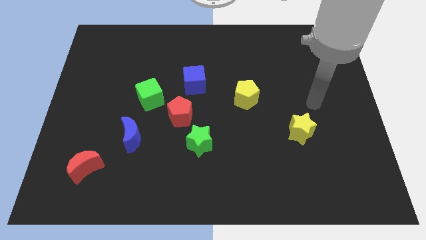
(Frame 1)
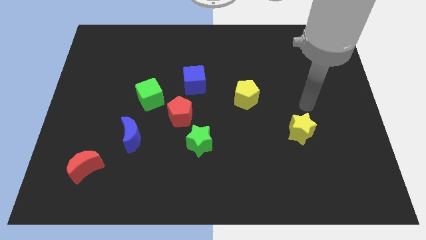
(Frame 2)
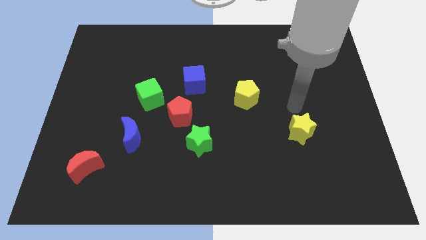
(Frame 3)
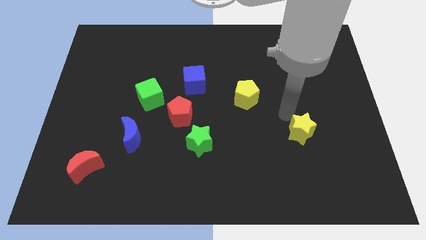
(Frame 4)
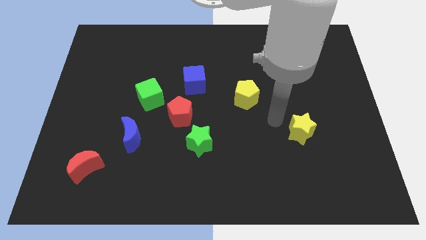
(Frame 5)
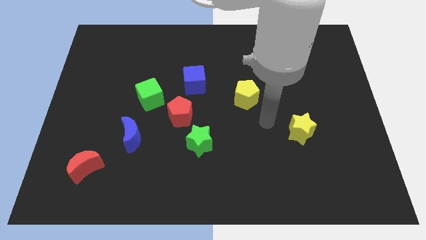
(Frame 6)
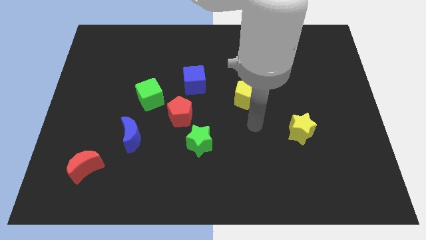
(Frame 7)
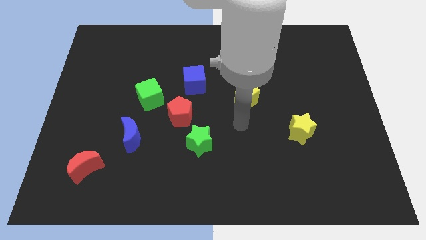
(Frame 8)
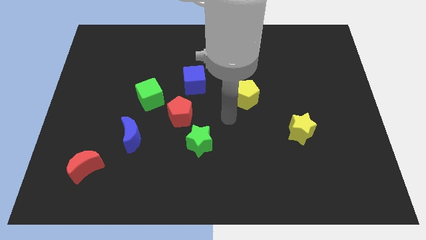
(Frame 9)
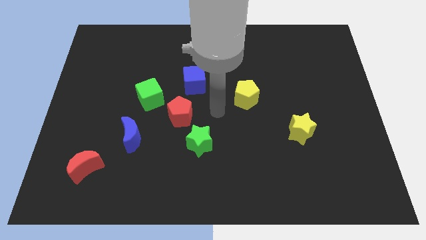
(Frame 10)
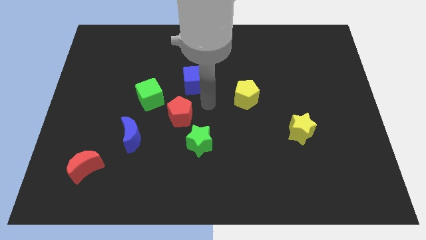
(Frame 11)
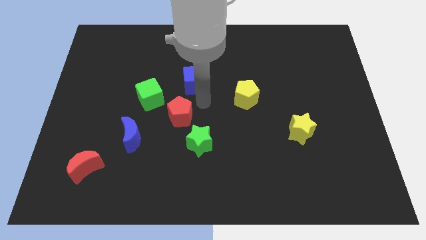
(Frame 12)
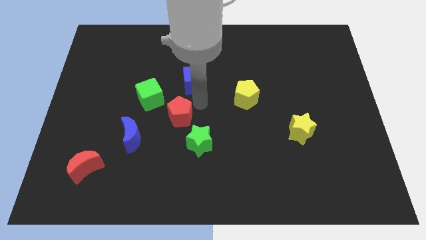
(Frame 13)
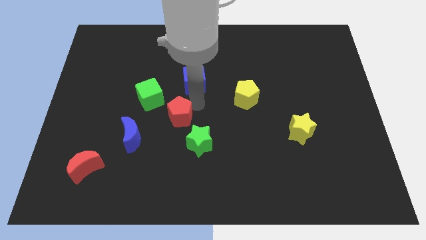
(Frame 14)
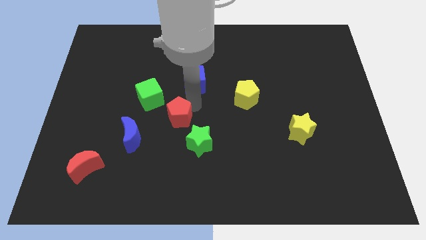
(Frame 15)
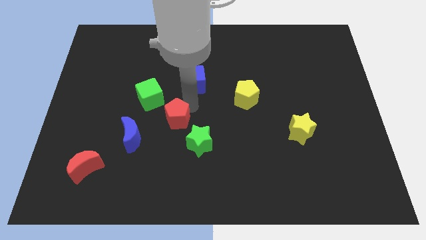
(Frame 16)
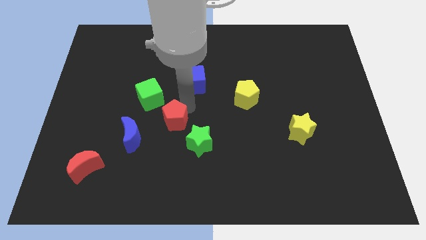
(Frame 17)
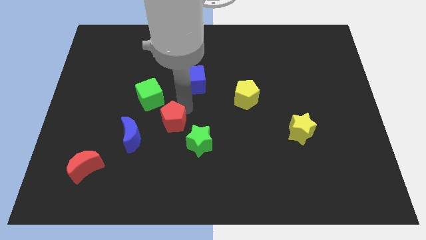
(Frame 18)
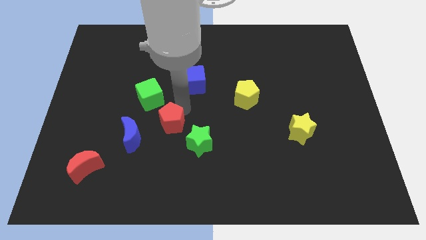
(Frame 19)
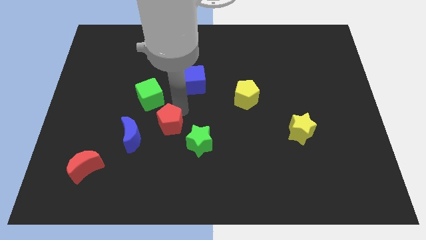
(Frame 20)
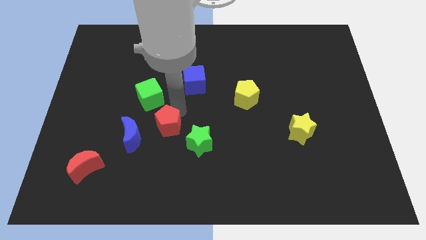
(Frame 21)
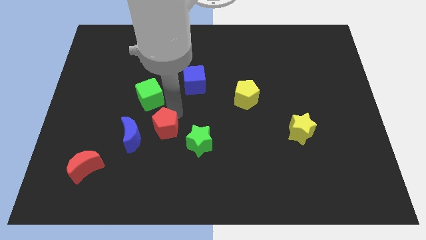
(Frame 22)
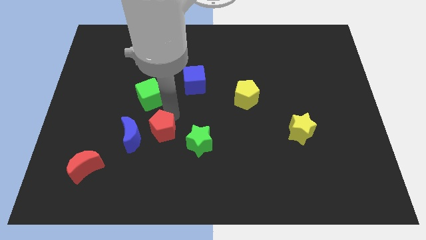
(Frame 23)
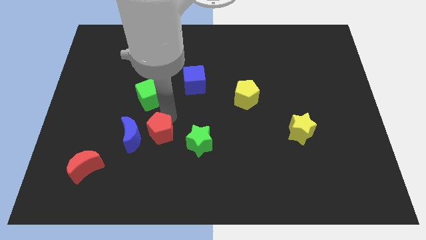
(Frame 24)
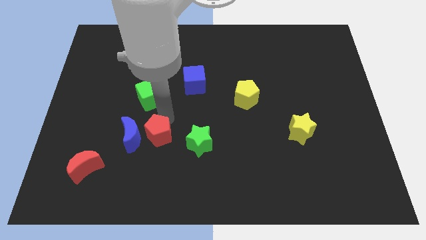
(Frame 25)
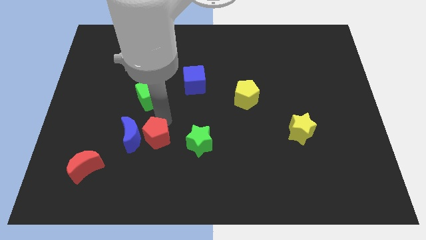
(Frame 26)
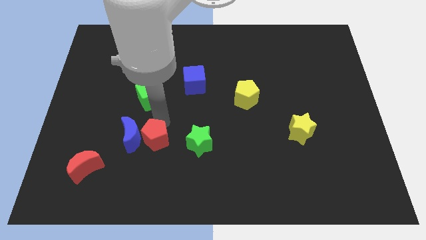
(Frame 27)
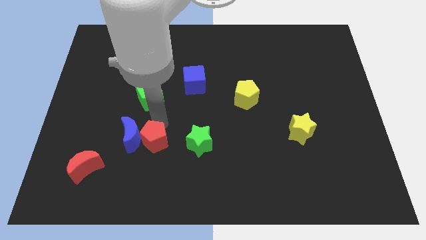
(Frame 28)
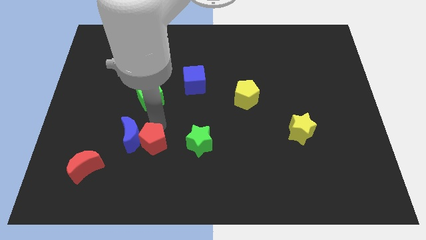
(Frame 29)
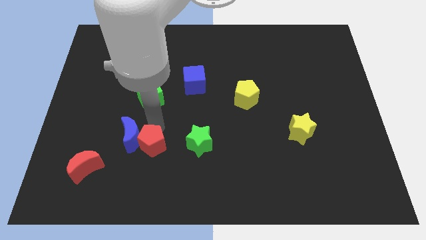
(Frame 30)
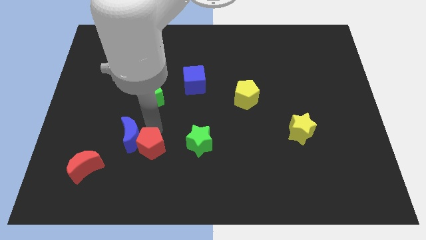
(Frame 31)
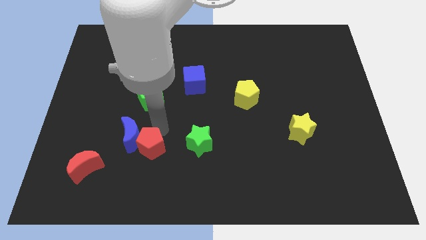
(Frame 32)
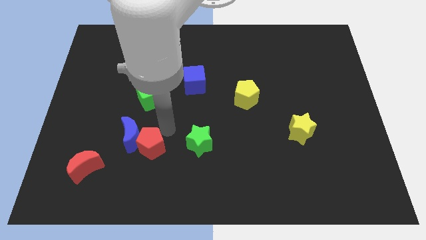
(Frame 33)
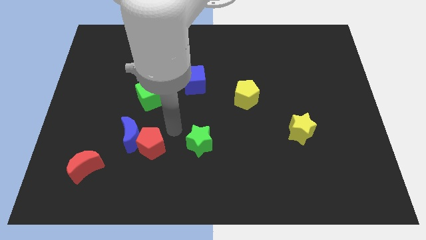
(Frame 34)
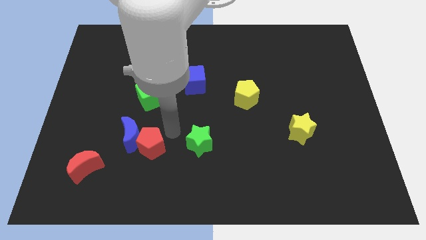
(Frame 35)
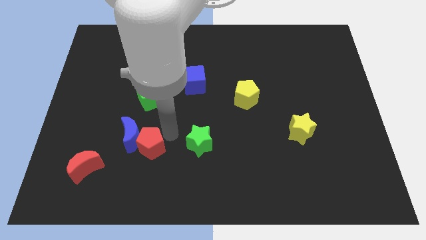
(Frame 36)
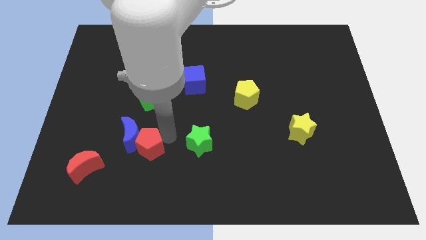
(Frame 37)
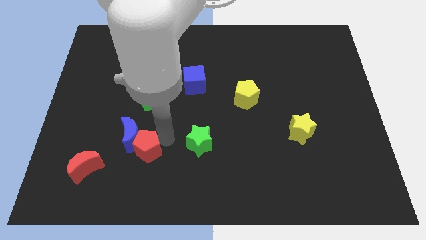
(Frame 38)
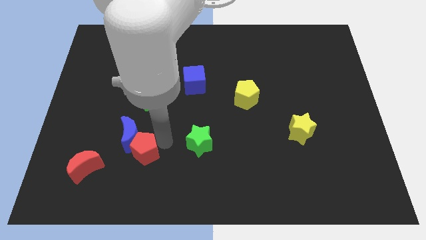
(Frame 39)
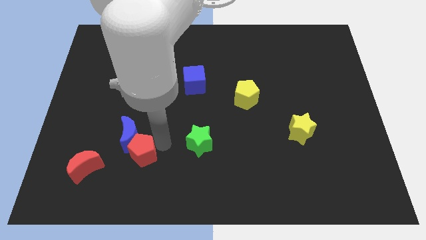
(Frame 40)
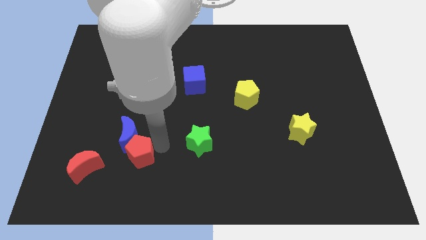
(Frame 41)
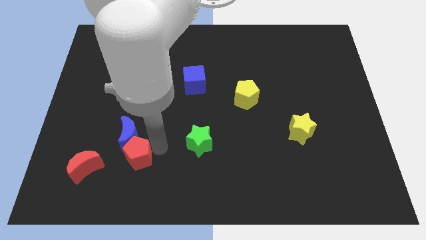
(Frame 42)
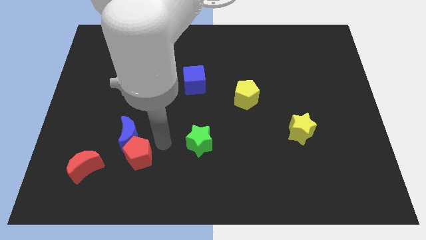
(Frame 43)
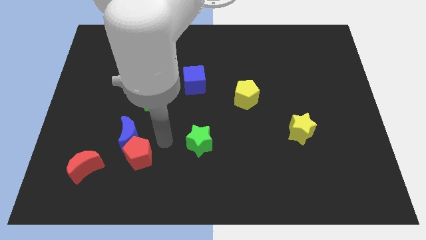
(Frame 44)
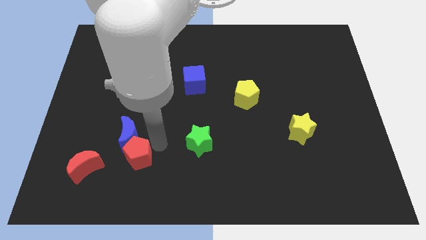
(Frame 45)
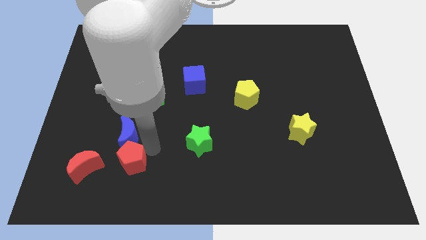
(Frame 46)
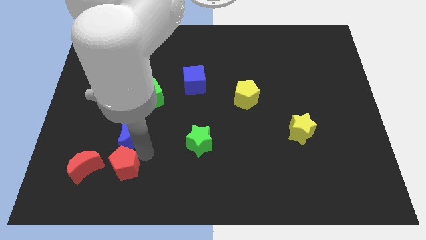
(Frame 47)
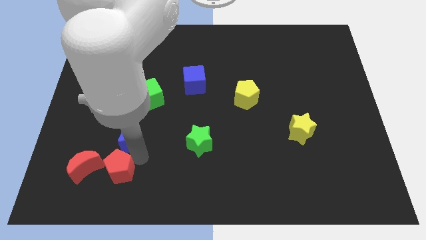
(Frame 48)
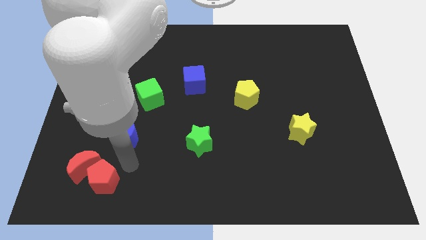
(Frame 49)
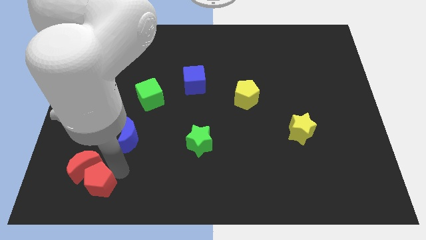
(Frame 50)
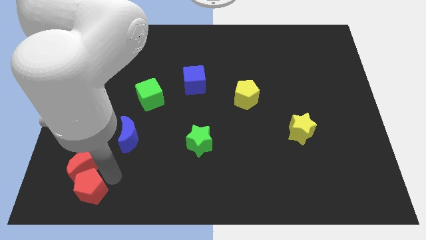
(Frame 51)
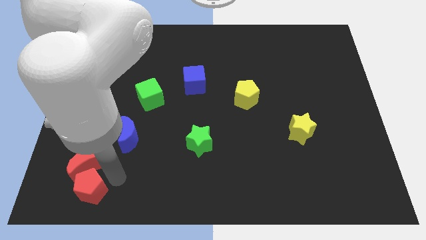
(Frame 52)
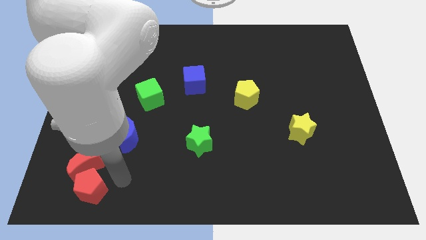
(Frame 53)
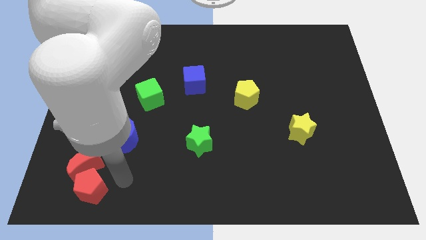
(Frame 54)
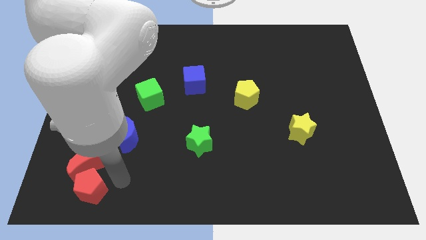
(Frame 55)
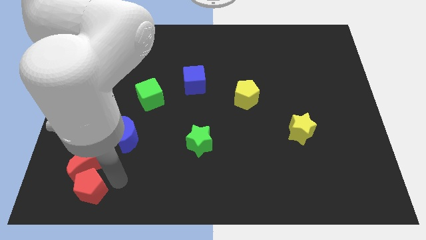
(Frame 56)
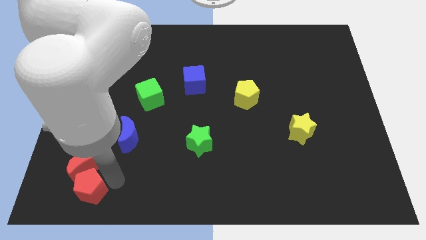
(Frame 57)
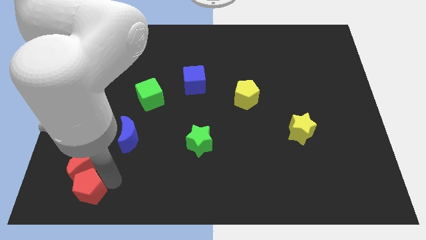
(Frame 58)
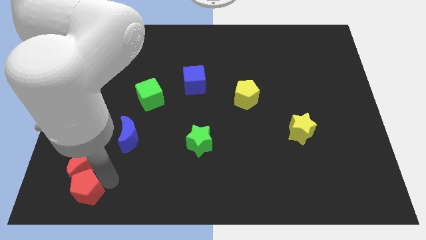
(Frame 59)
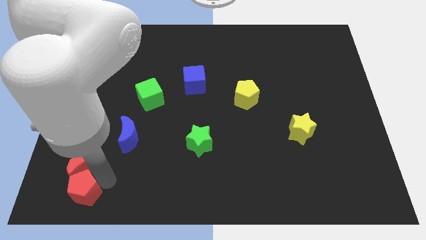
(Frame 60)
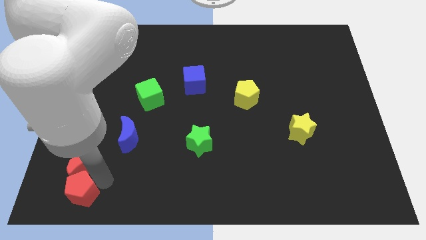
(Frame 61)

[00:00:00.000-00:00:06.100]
move the red pentagon to the bottom left

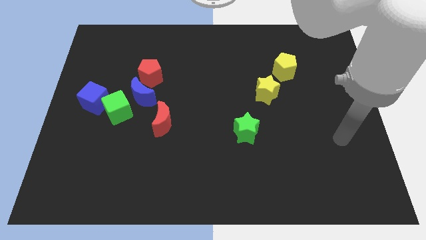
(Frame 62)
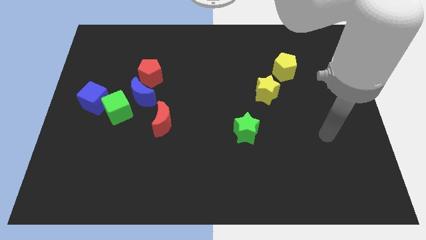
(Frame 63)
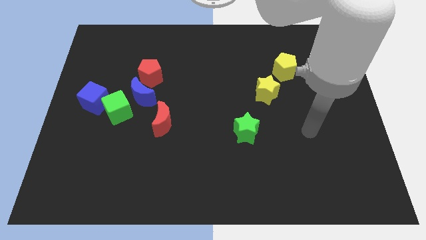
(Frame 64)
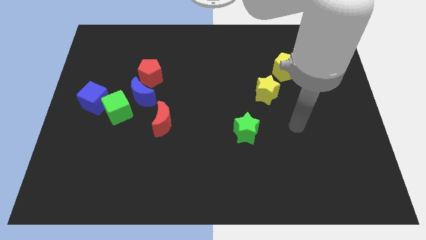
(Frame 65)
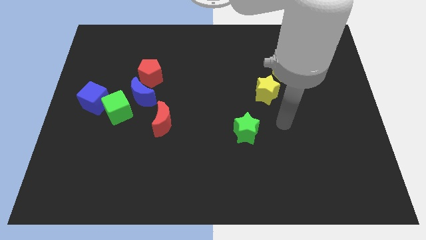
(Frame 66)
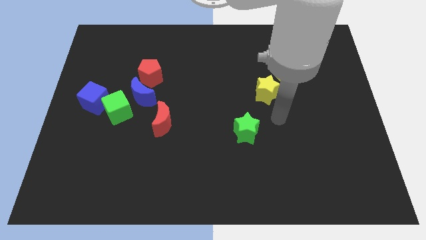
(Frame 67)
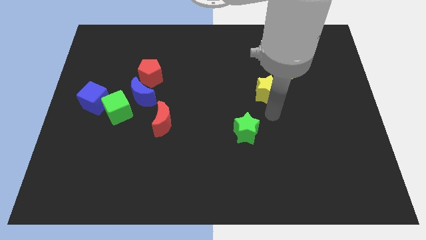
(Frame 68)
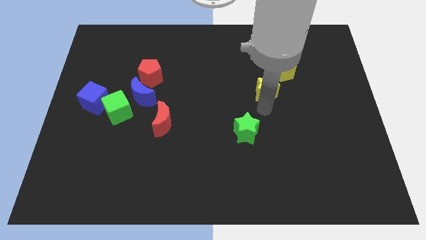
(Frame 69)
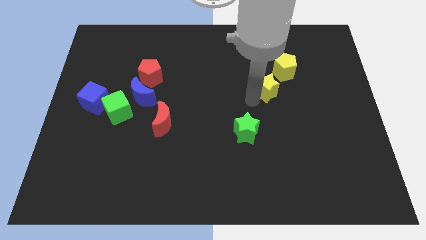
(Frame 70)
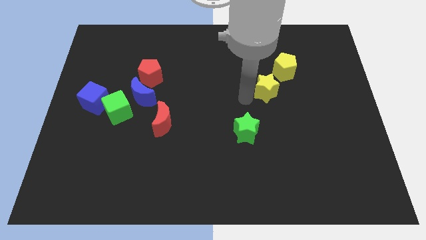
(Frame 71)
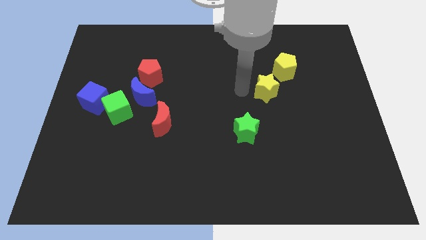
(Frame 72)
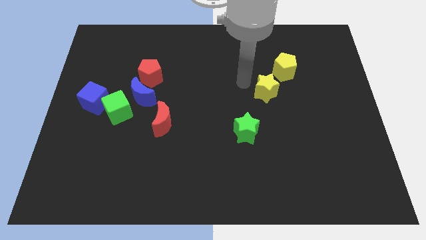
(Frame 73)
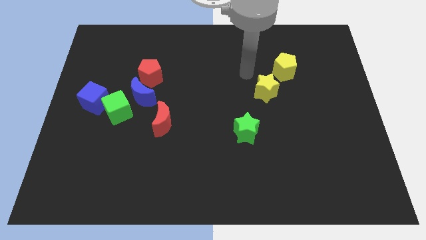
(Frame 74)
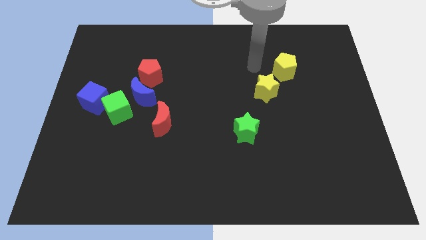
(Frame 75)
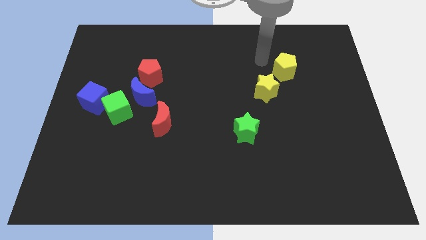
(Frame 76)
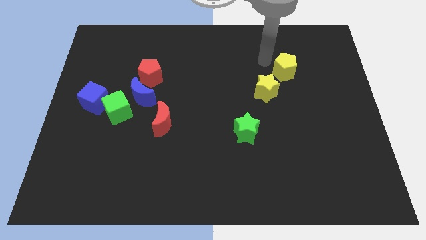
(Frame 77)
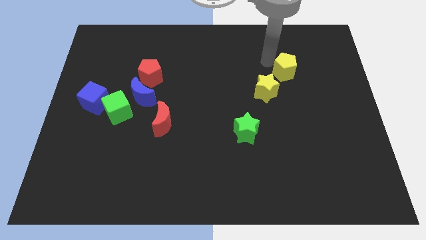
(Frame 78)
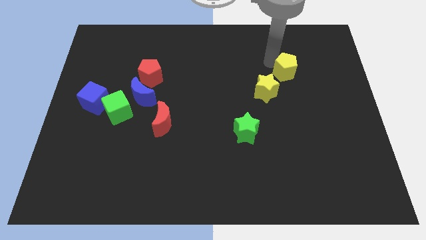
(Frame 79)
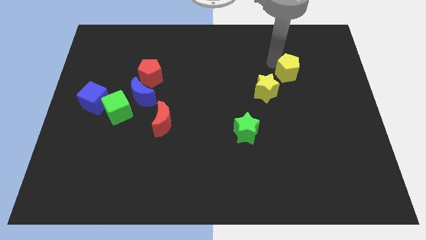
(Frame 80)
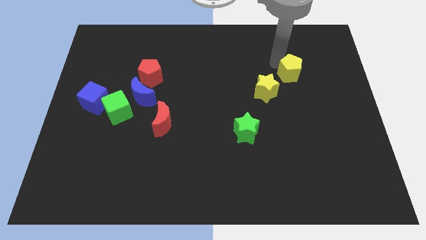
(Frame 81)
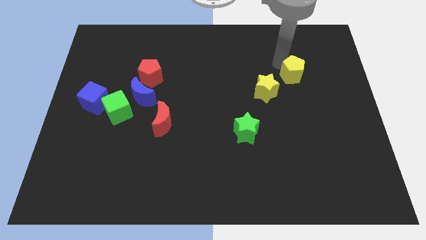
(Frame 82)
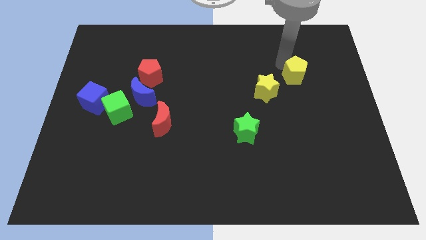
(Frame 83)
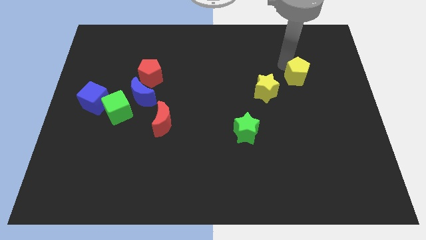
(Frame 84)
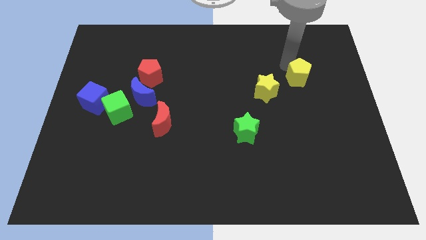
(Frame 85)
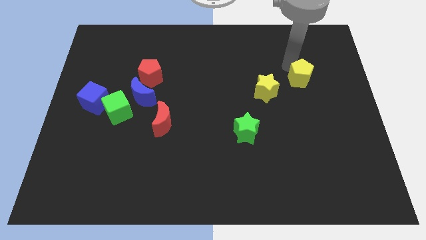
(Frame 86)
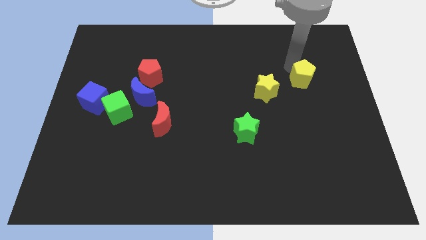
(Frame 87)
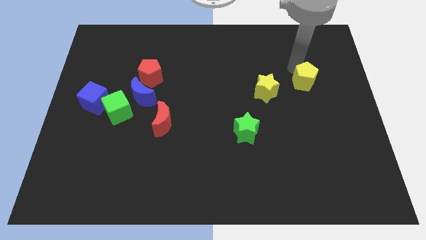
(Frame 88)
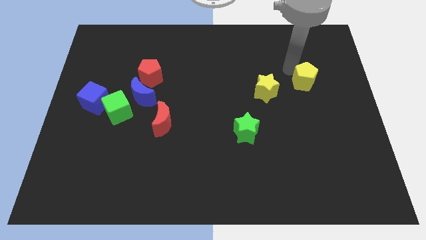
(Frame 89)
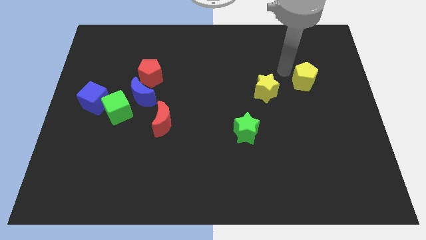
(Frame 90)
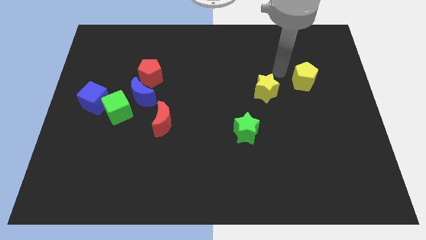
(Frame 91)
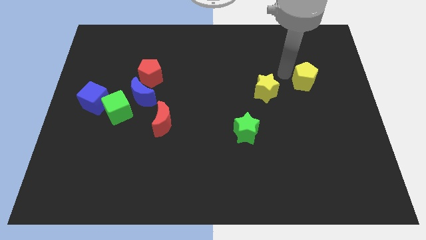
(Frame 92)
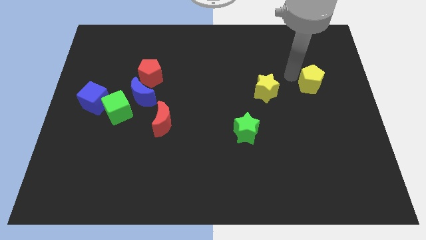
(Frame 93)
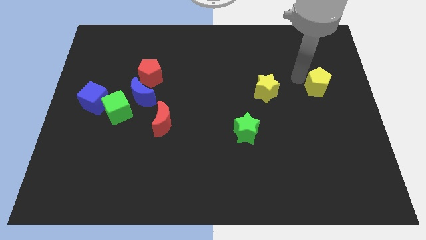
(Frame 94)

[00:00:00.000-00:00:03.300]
push the yellow pentagon to the right side of the board
